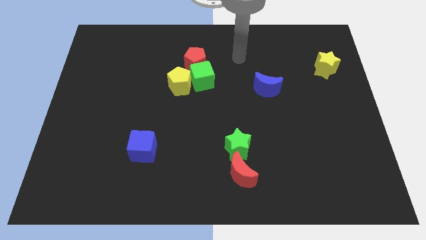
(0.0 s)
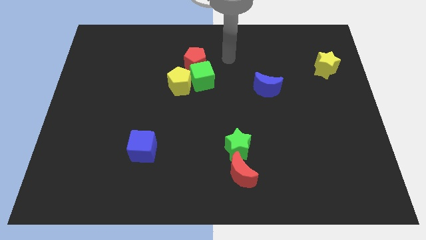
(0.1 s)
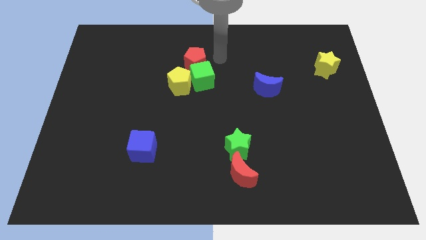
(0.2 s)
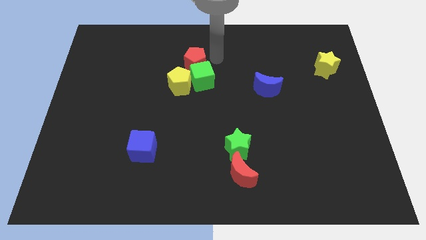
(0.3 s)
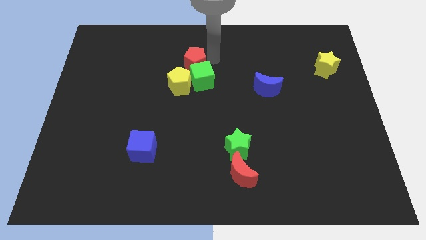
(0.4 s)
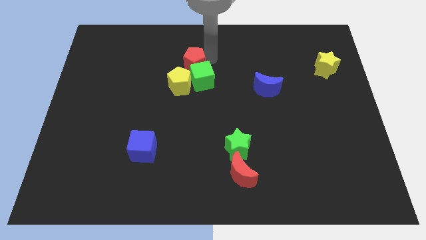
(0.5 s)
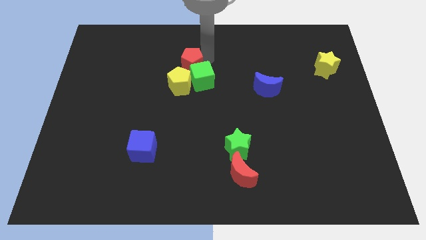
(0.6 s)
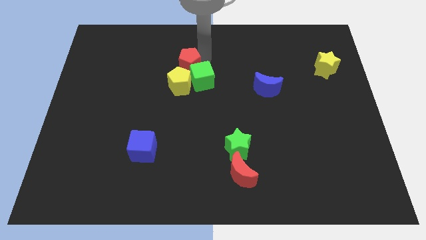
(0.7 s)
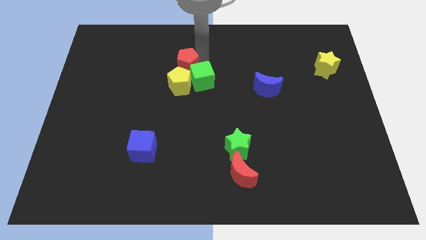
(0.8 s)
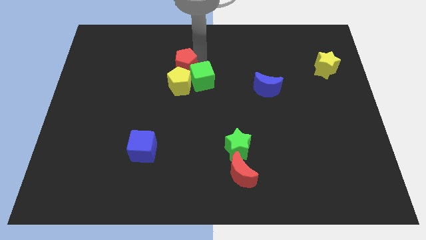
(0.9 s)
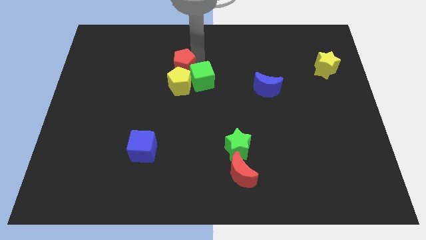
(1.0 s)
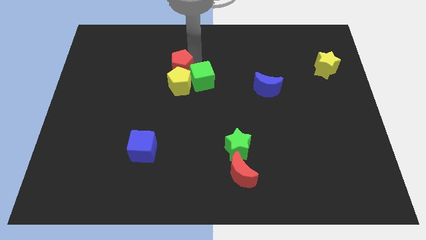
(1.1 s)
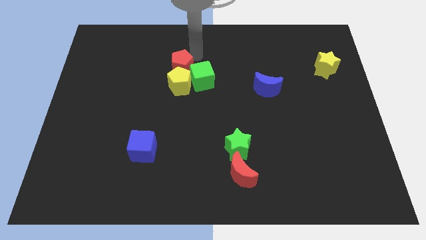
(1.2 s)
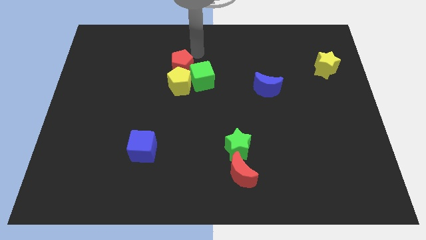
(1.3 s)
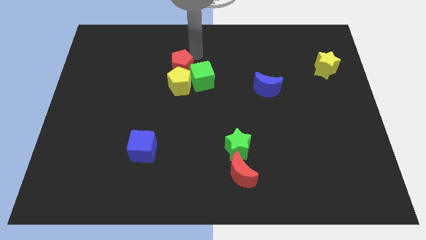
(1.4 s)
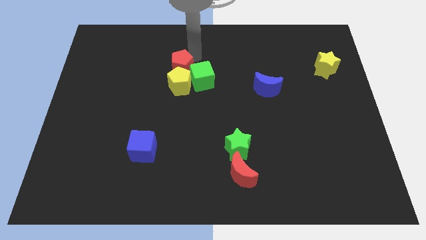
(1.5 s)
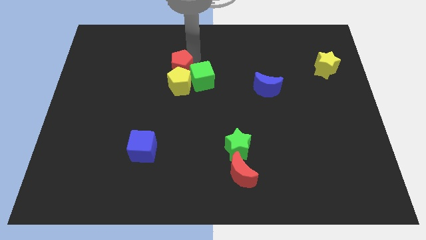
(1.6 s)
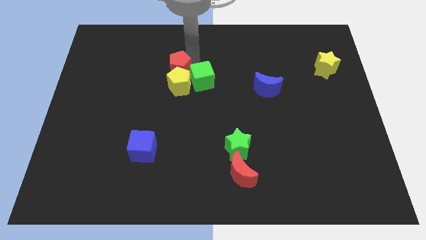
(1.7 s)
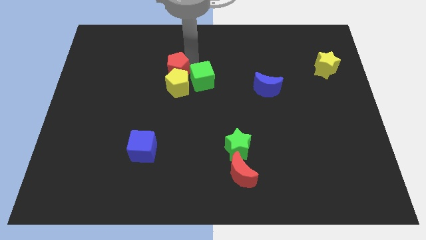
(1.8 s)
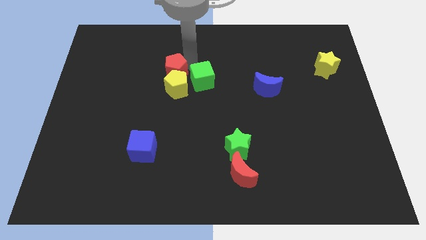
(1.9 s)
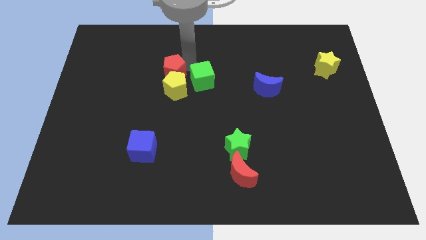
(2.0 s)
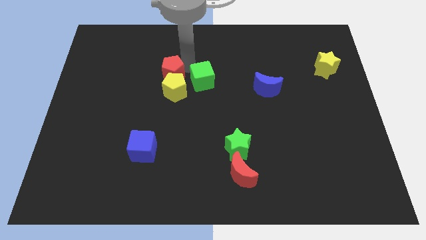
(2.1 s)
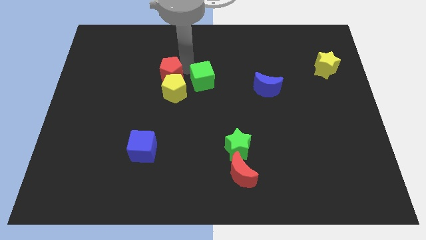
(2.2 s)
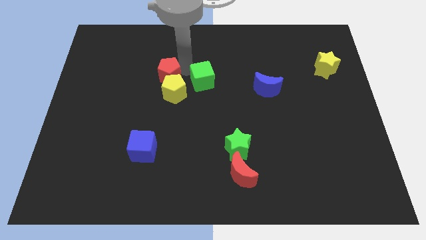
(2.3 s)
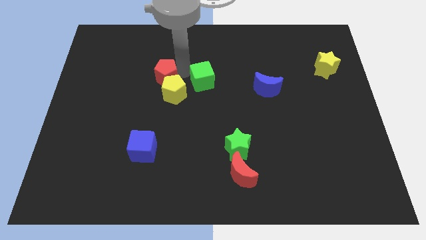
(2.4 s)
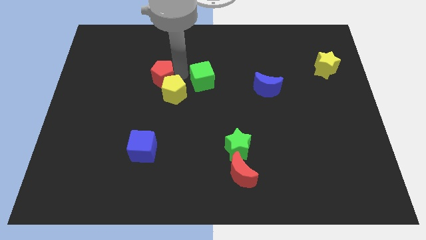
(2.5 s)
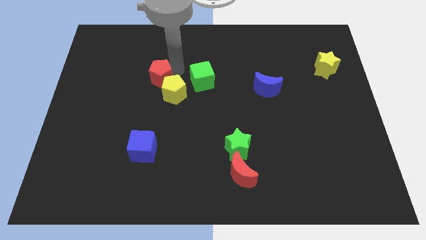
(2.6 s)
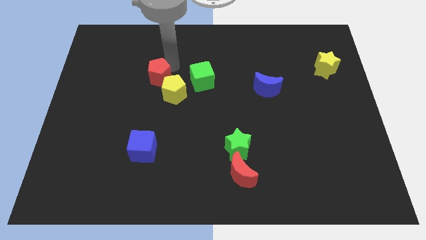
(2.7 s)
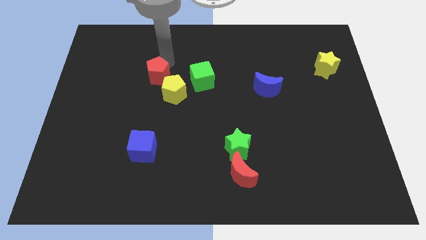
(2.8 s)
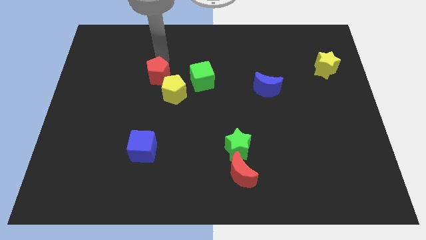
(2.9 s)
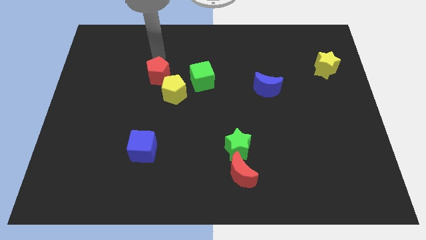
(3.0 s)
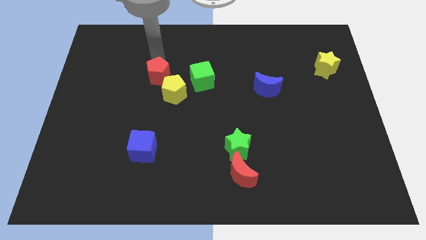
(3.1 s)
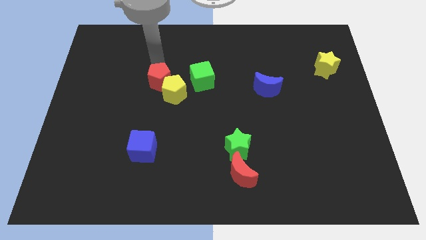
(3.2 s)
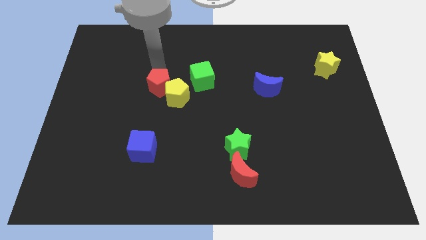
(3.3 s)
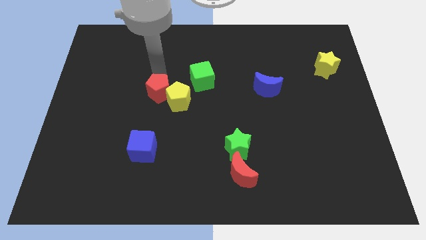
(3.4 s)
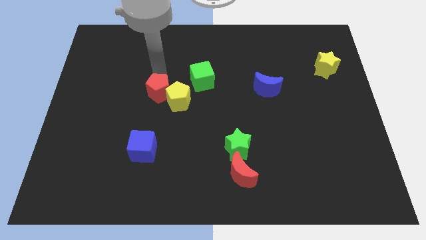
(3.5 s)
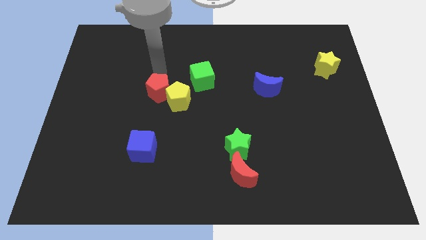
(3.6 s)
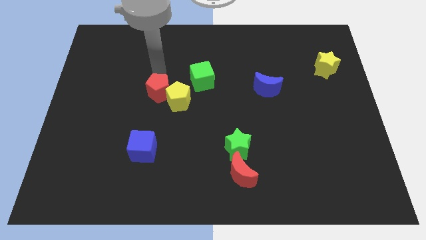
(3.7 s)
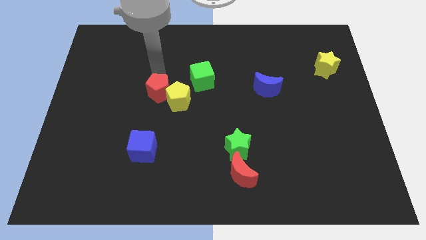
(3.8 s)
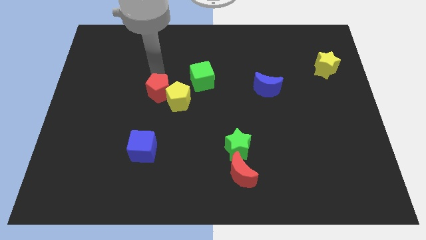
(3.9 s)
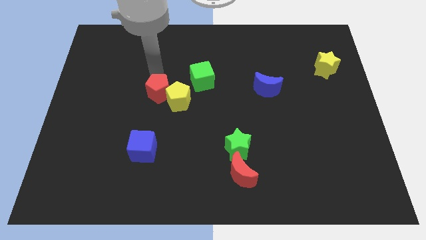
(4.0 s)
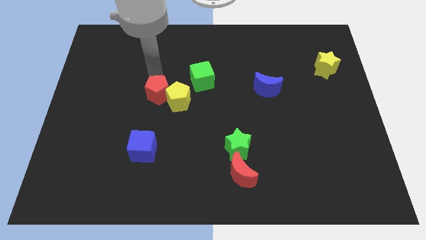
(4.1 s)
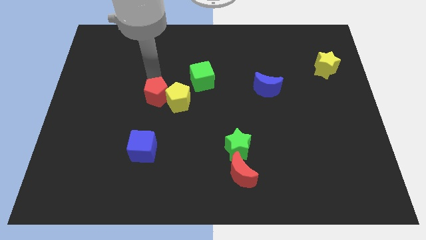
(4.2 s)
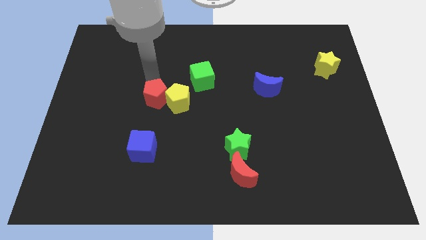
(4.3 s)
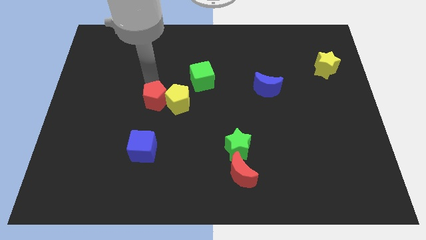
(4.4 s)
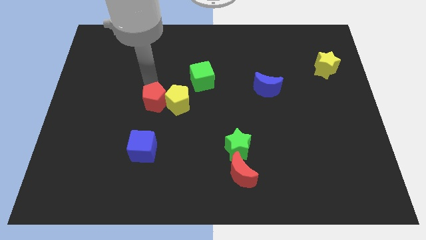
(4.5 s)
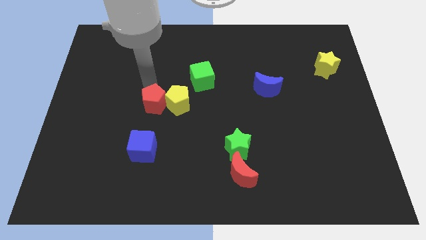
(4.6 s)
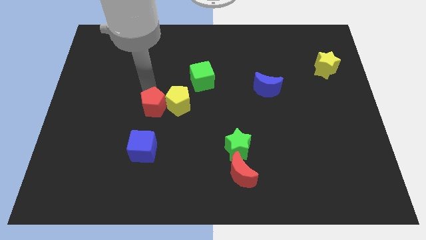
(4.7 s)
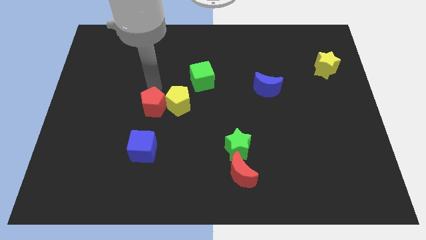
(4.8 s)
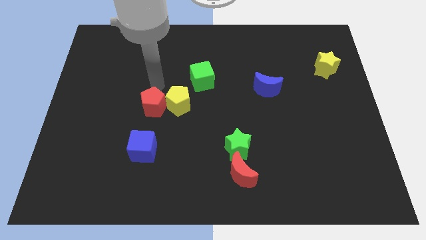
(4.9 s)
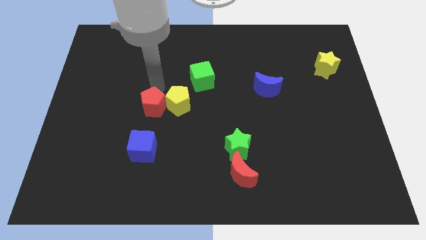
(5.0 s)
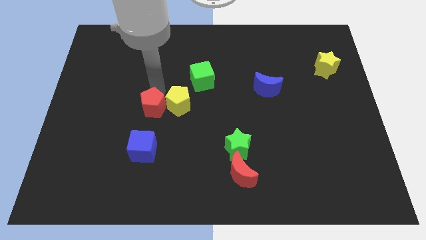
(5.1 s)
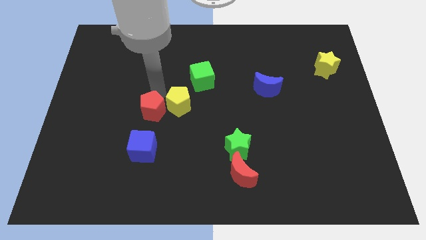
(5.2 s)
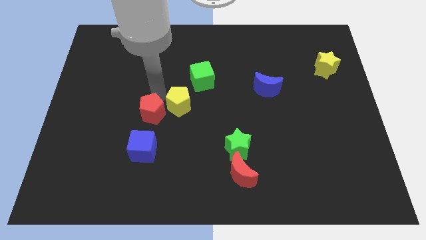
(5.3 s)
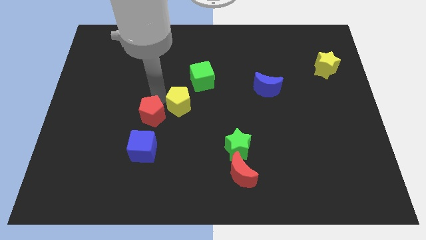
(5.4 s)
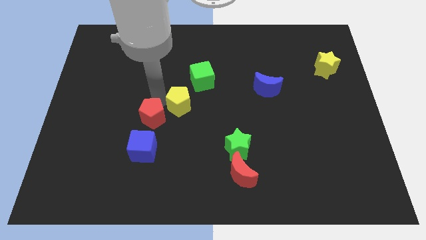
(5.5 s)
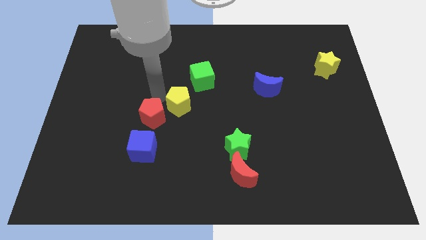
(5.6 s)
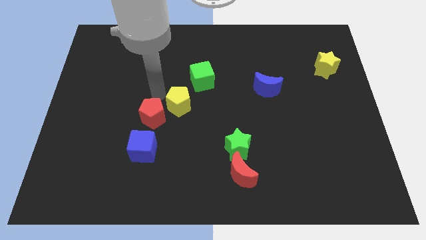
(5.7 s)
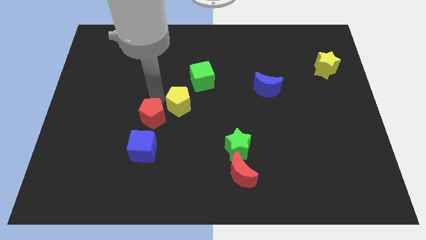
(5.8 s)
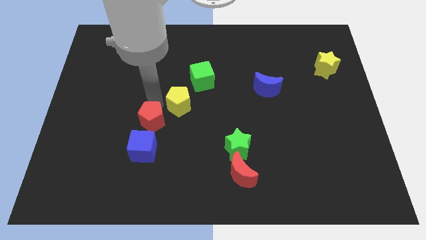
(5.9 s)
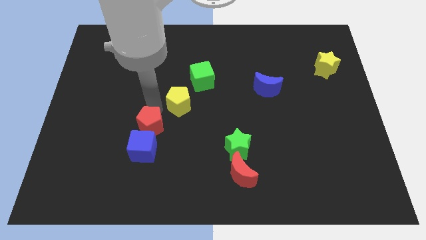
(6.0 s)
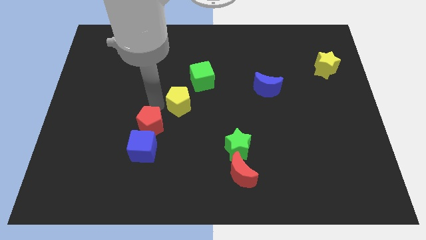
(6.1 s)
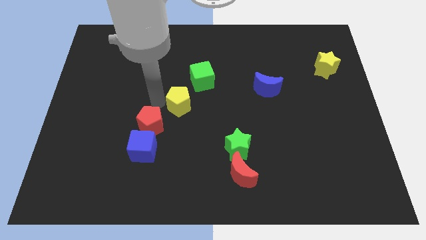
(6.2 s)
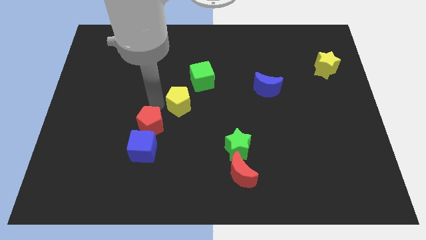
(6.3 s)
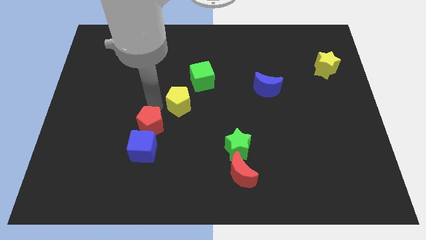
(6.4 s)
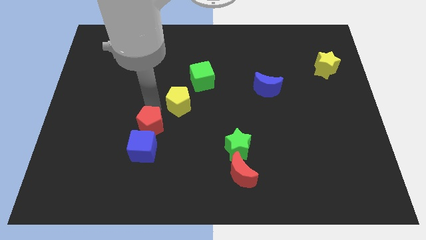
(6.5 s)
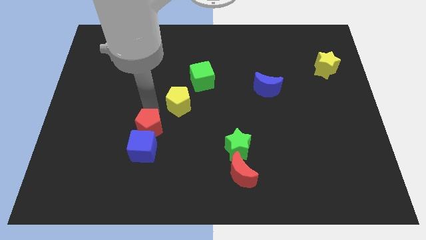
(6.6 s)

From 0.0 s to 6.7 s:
put the red pentagon close to the blue cube

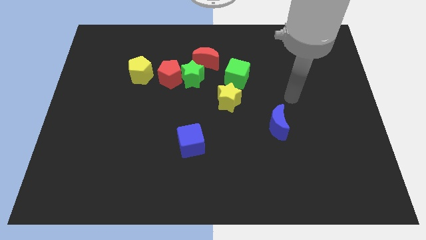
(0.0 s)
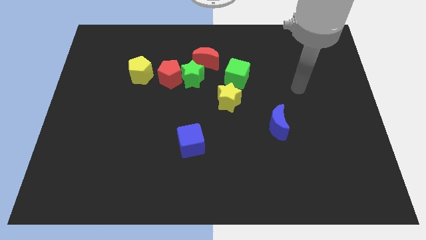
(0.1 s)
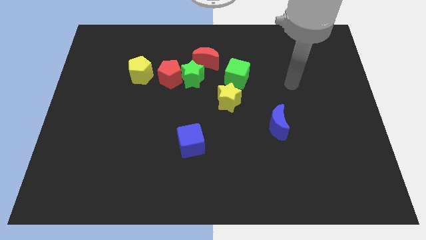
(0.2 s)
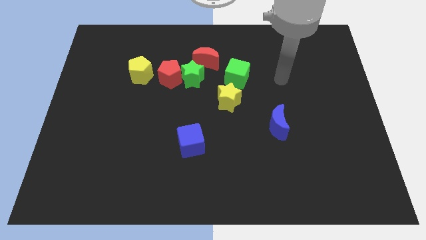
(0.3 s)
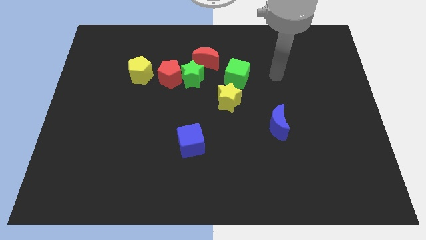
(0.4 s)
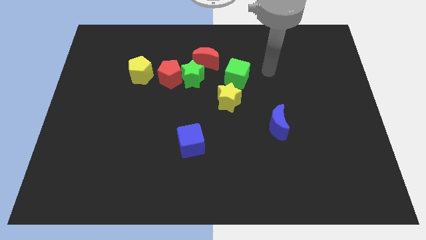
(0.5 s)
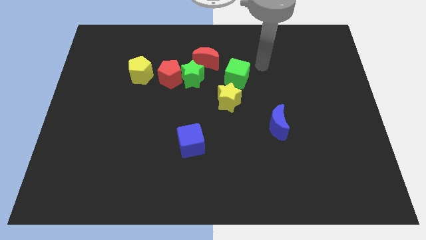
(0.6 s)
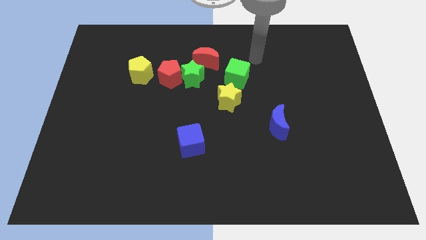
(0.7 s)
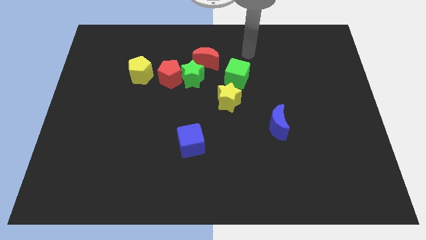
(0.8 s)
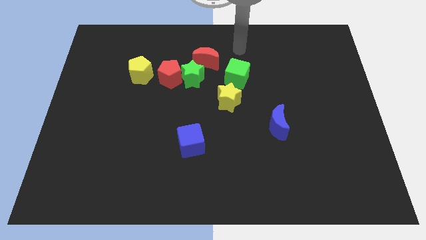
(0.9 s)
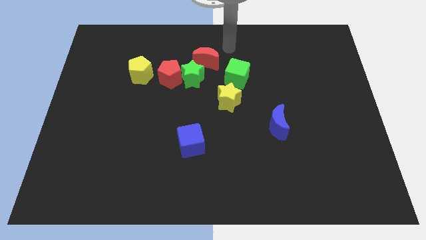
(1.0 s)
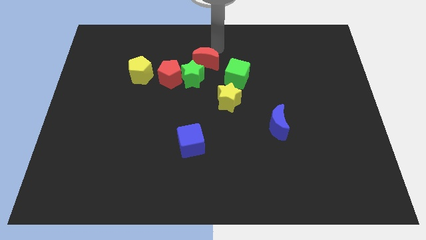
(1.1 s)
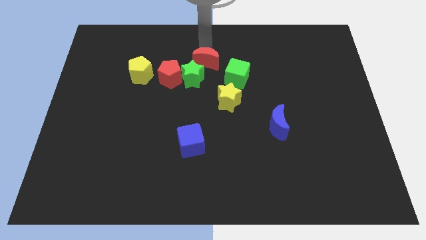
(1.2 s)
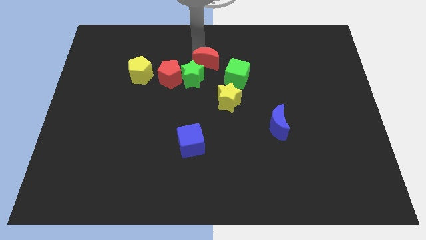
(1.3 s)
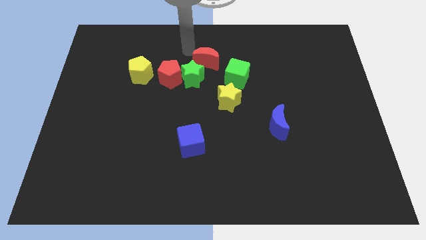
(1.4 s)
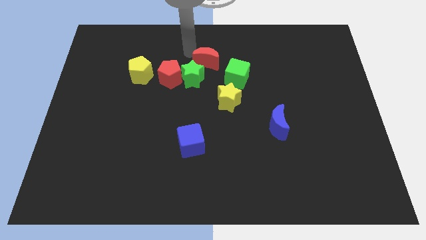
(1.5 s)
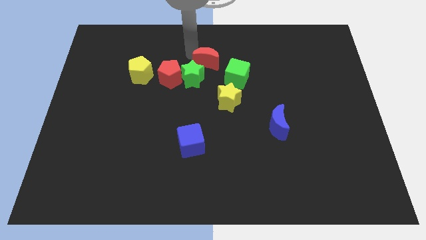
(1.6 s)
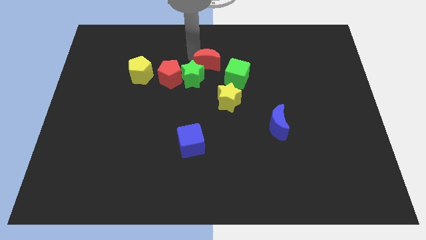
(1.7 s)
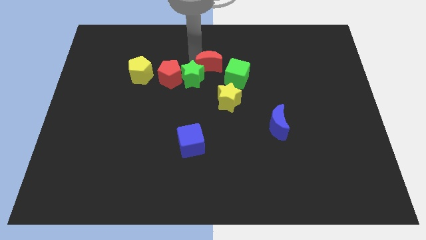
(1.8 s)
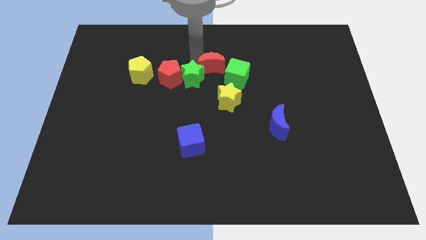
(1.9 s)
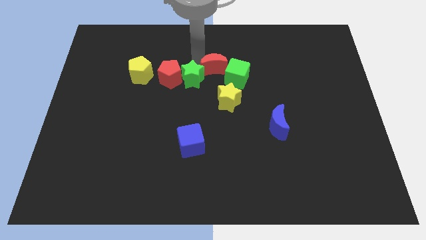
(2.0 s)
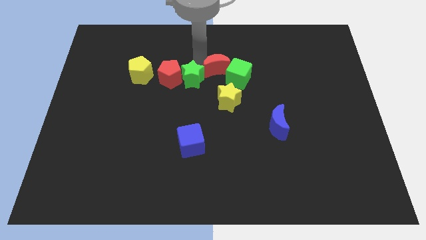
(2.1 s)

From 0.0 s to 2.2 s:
slide the red moon to the green cube
